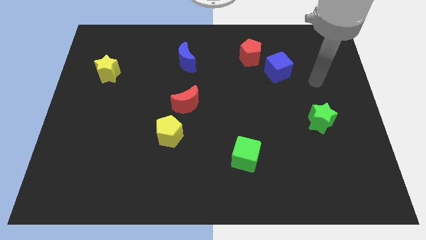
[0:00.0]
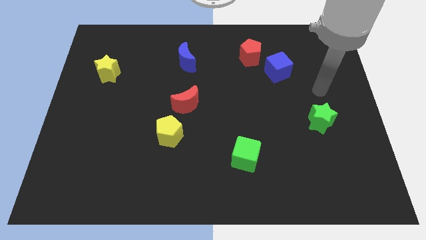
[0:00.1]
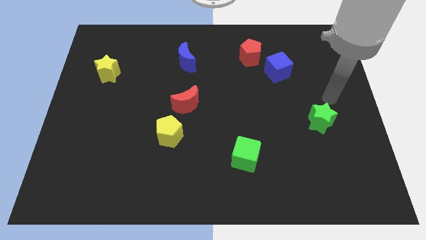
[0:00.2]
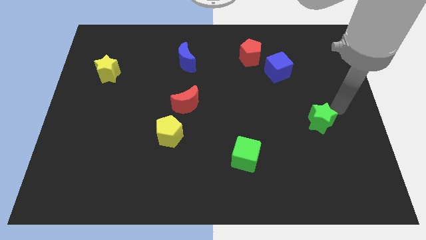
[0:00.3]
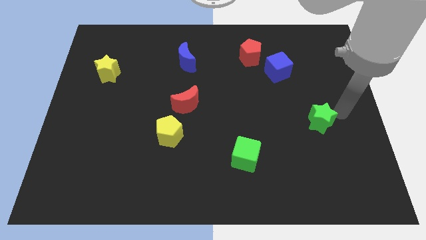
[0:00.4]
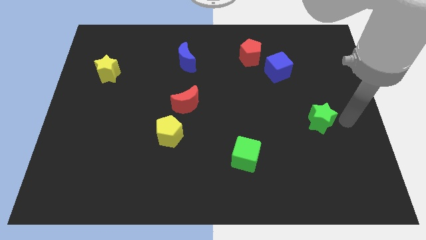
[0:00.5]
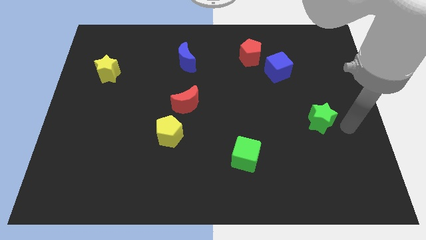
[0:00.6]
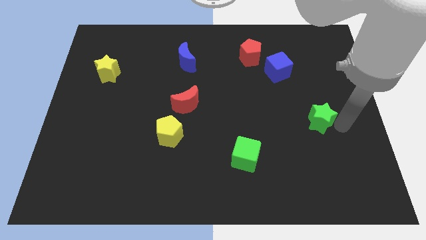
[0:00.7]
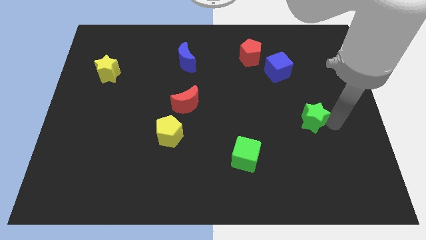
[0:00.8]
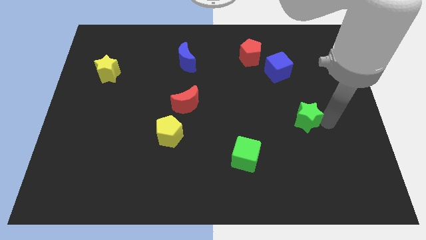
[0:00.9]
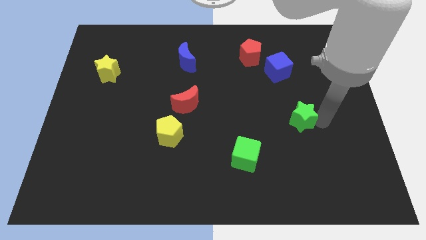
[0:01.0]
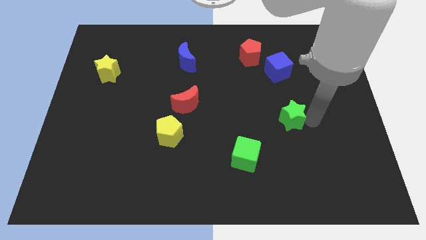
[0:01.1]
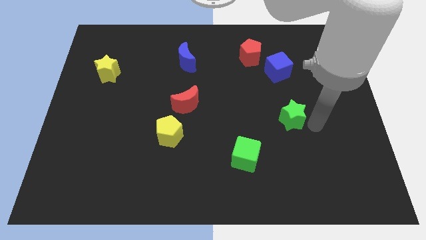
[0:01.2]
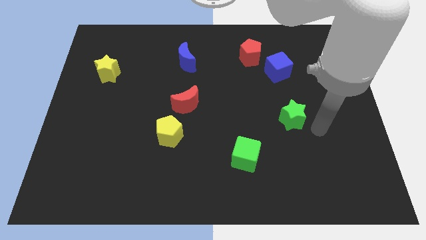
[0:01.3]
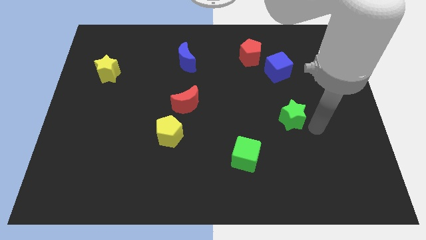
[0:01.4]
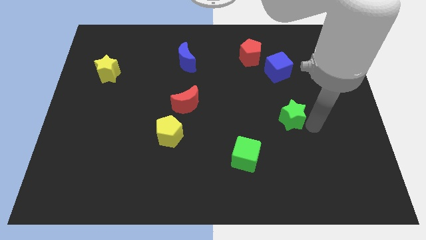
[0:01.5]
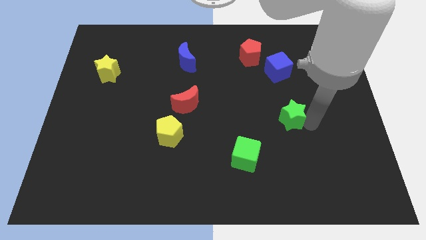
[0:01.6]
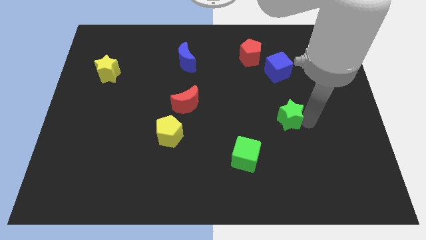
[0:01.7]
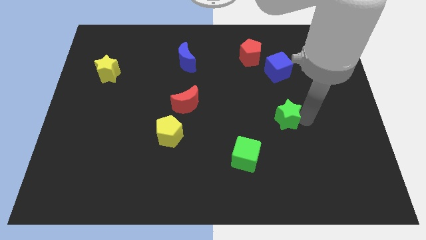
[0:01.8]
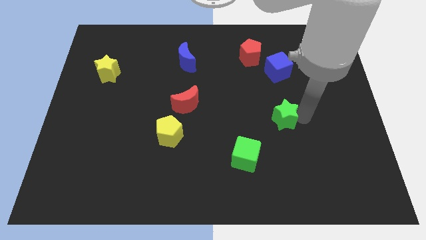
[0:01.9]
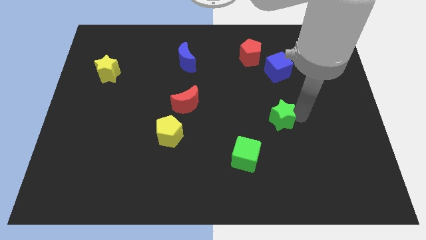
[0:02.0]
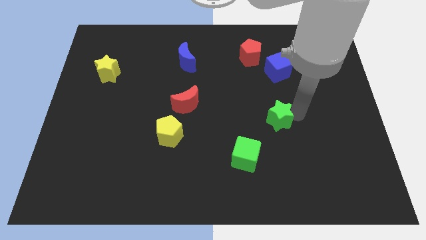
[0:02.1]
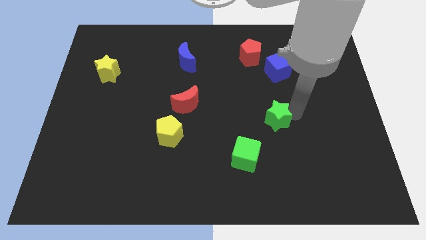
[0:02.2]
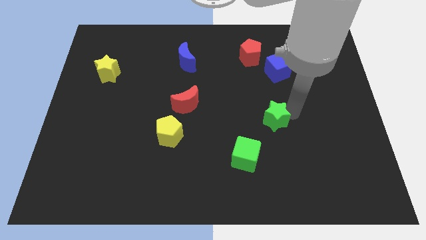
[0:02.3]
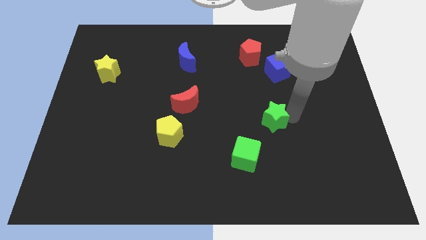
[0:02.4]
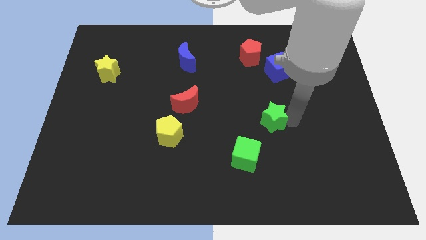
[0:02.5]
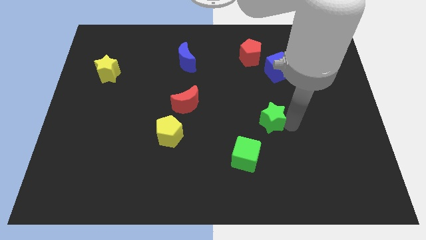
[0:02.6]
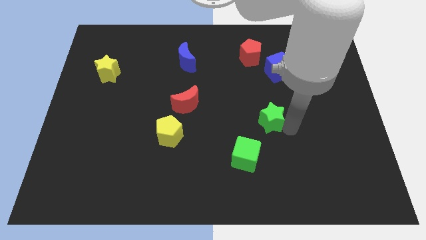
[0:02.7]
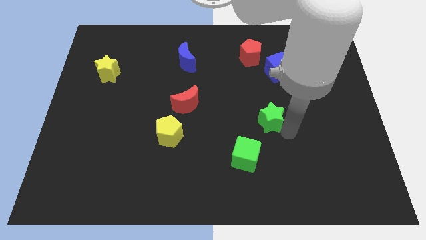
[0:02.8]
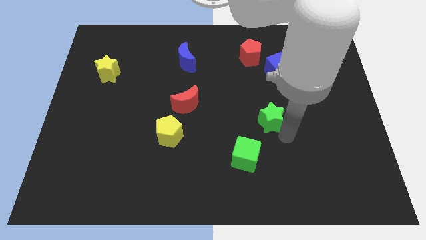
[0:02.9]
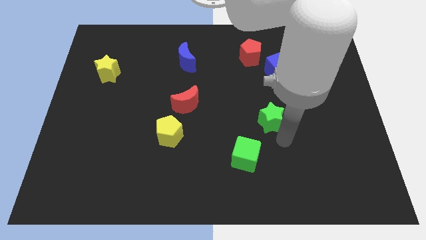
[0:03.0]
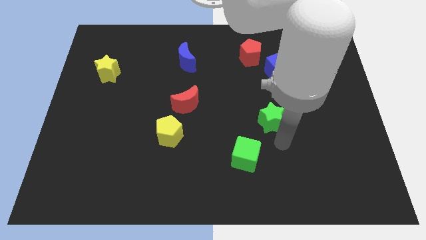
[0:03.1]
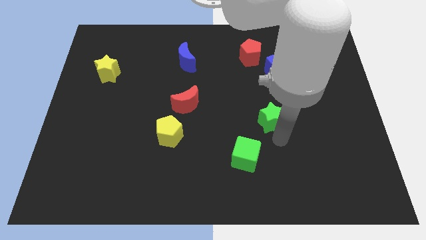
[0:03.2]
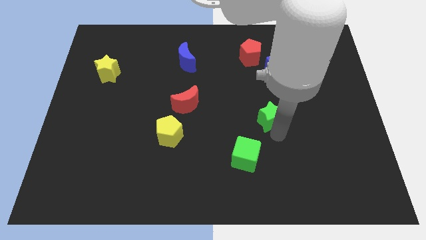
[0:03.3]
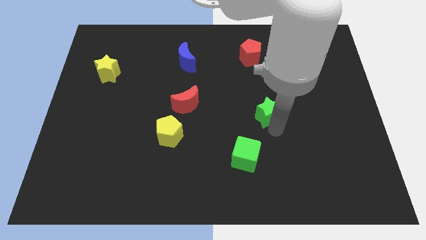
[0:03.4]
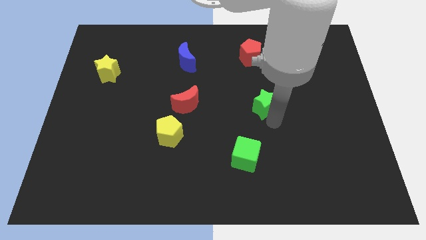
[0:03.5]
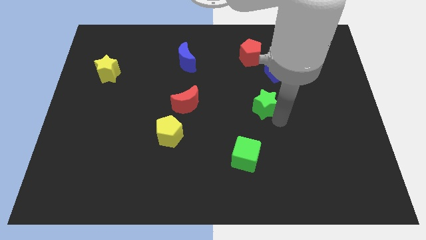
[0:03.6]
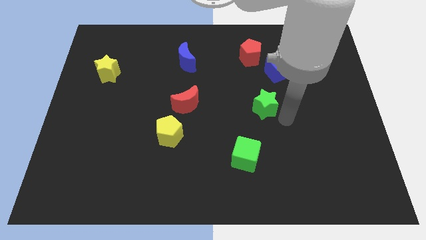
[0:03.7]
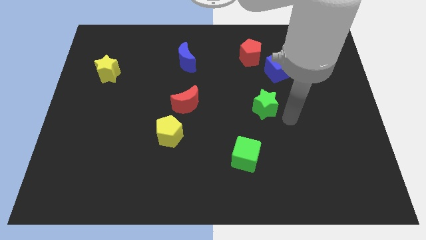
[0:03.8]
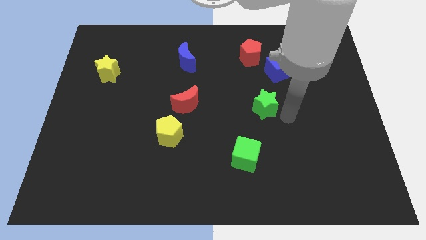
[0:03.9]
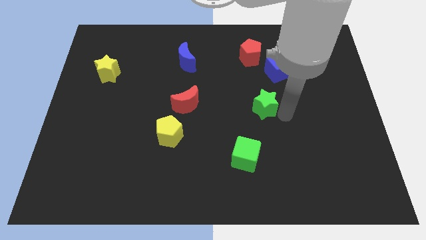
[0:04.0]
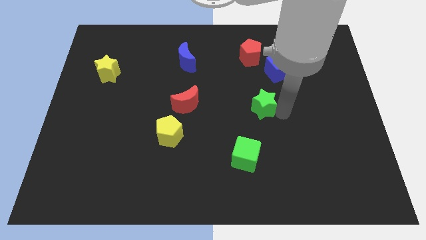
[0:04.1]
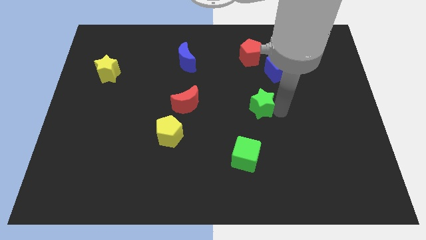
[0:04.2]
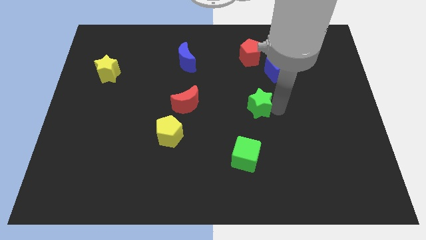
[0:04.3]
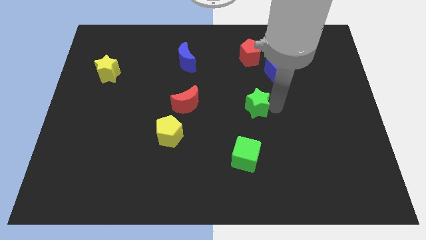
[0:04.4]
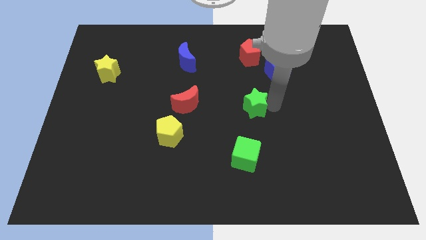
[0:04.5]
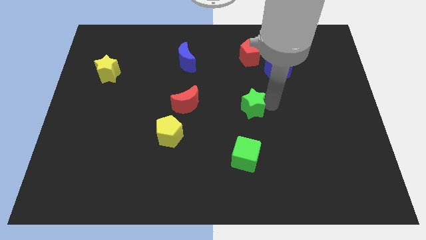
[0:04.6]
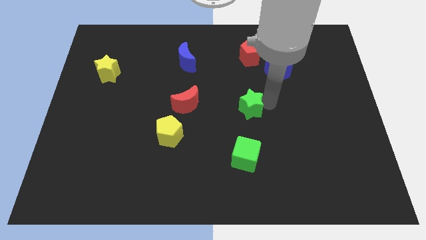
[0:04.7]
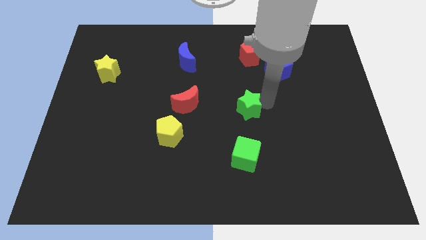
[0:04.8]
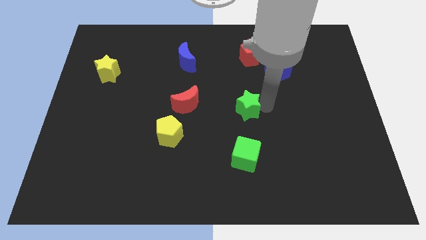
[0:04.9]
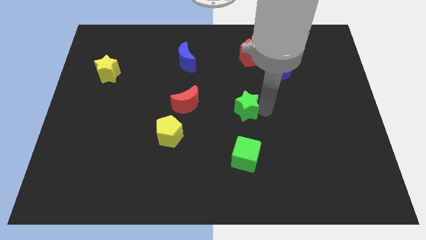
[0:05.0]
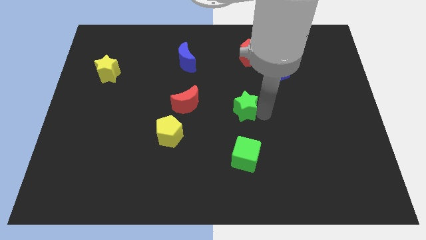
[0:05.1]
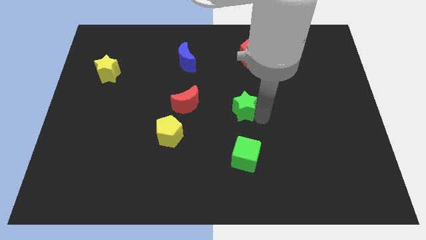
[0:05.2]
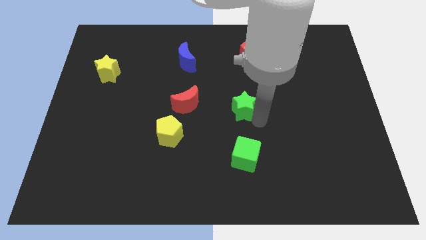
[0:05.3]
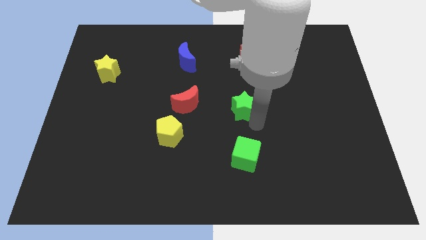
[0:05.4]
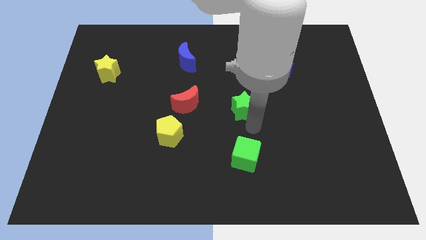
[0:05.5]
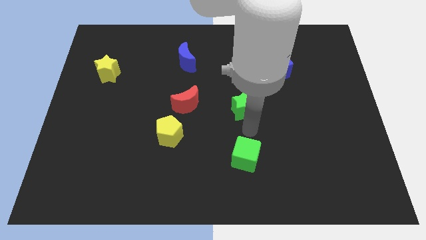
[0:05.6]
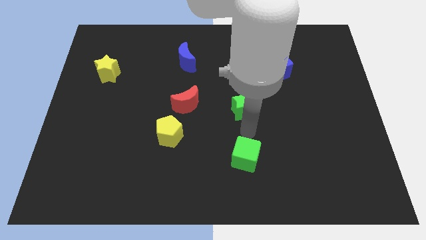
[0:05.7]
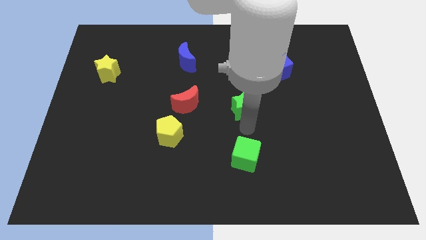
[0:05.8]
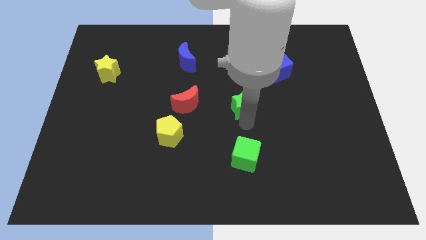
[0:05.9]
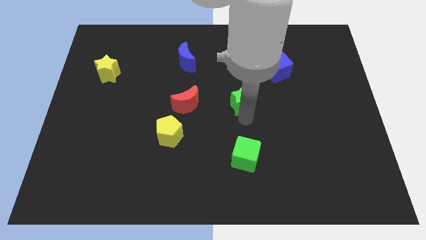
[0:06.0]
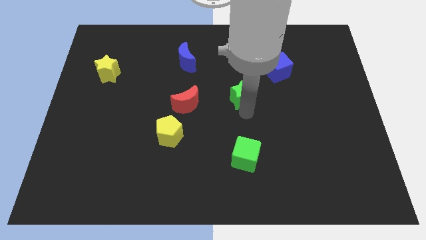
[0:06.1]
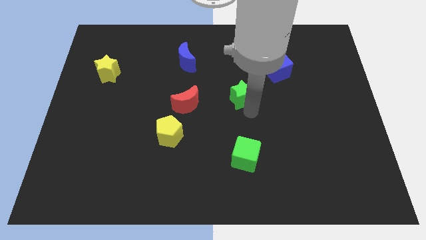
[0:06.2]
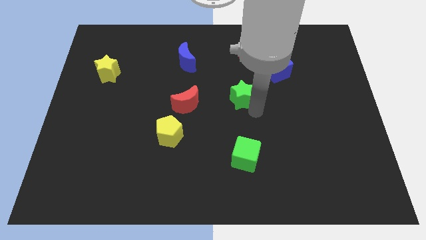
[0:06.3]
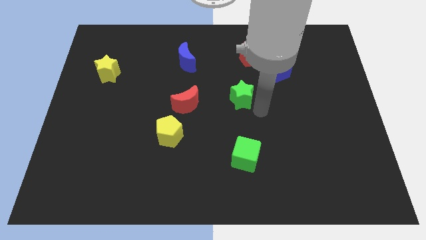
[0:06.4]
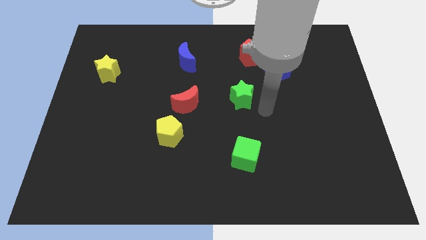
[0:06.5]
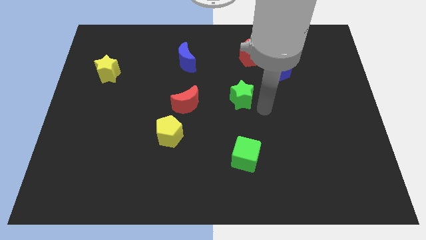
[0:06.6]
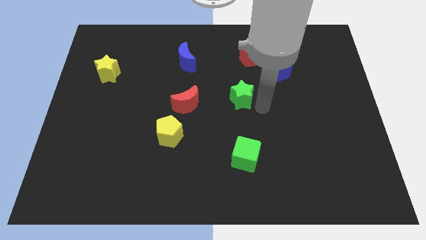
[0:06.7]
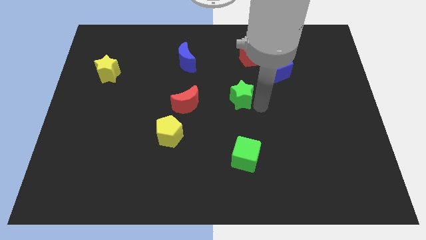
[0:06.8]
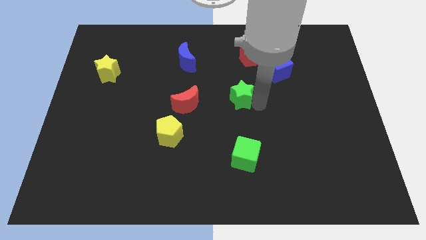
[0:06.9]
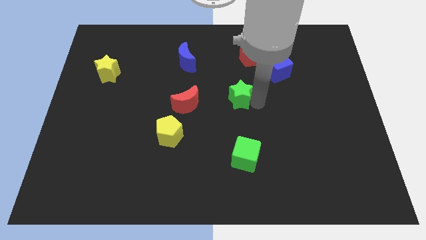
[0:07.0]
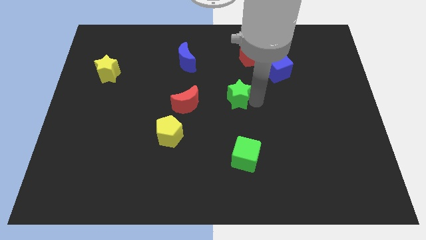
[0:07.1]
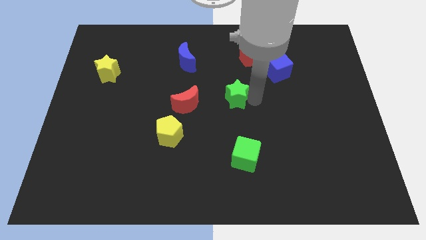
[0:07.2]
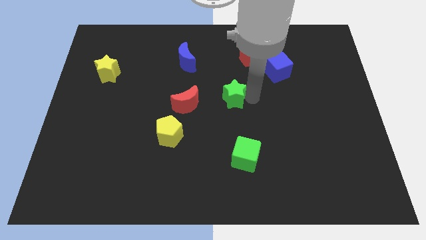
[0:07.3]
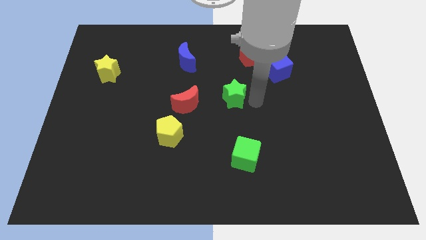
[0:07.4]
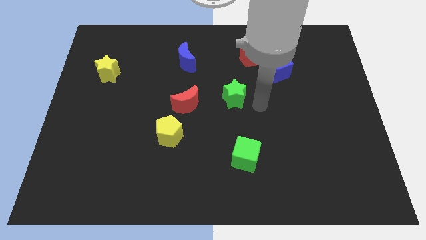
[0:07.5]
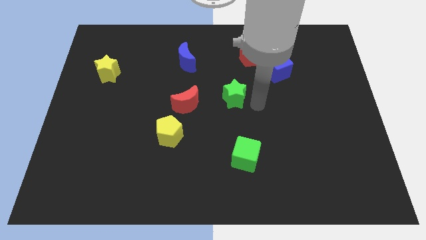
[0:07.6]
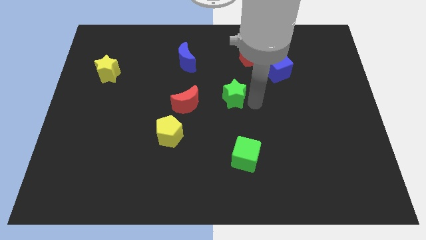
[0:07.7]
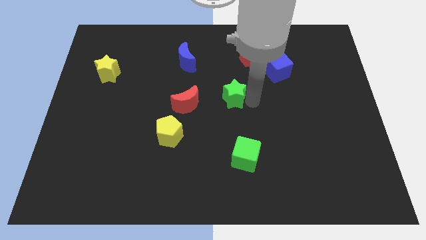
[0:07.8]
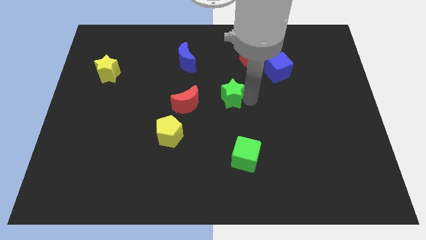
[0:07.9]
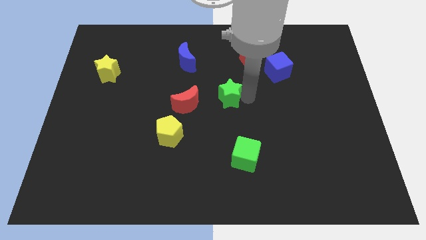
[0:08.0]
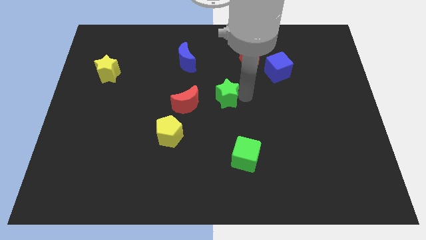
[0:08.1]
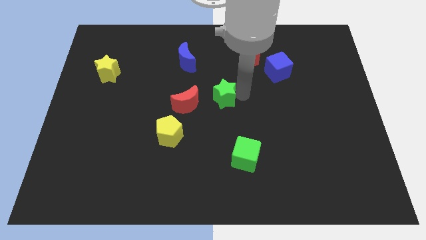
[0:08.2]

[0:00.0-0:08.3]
put the green star to the top right of the red moon
